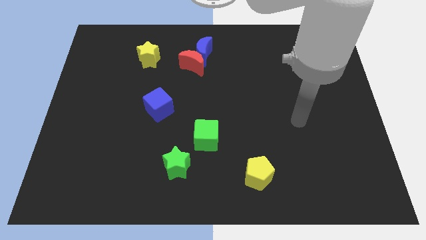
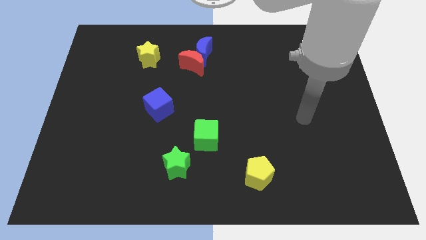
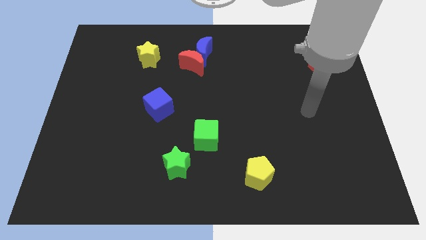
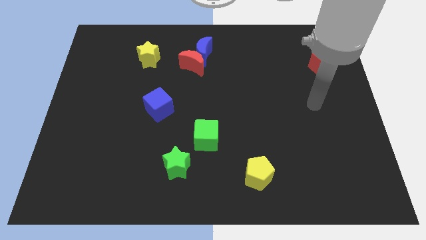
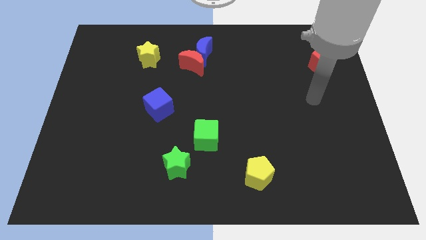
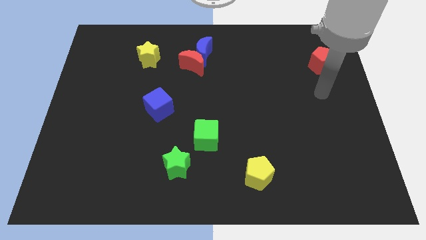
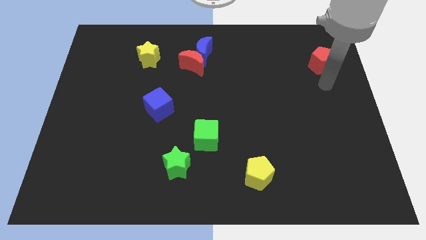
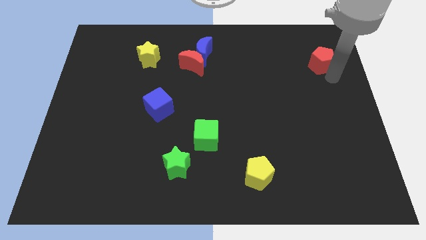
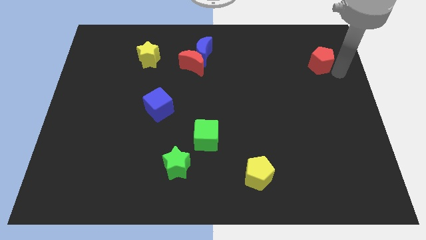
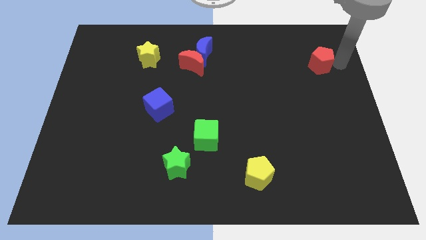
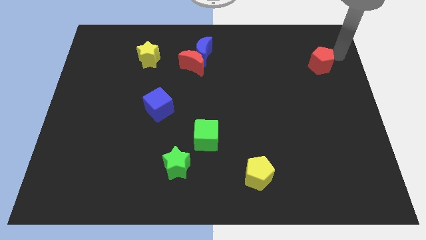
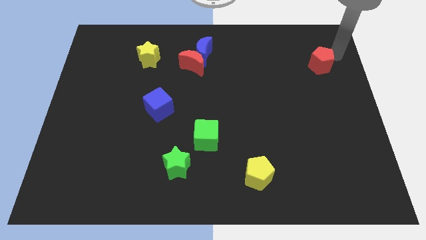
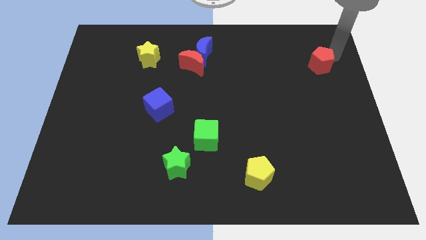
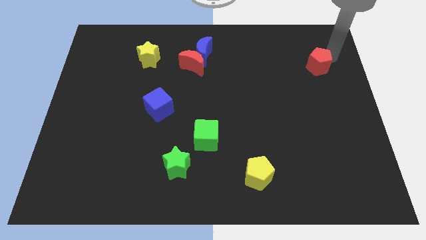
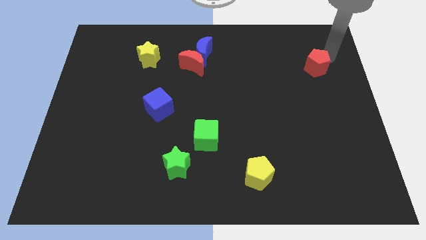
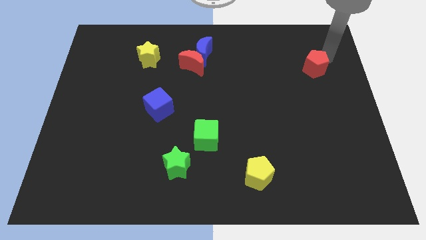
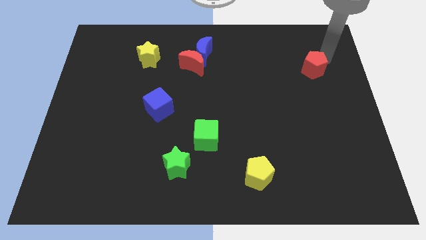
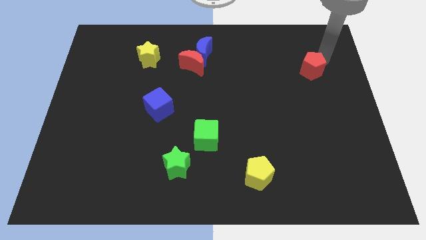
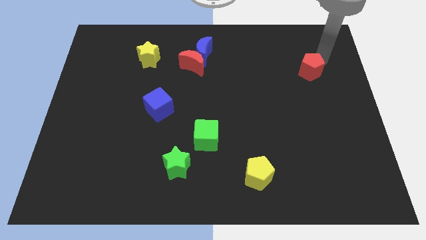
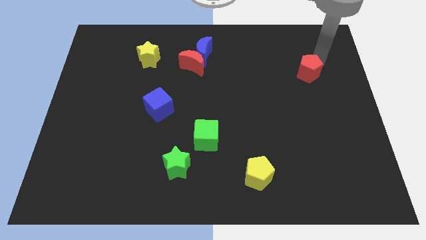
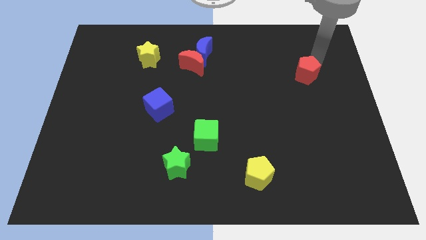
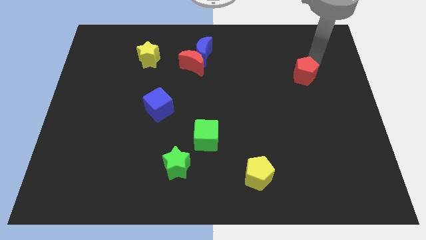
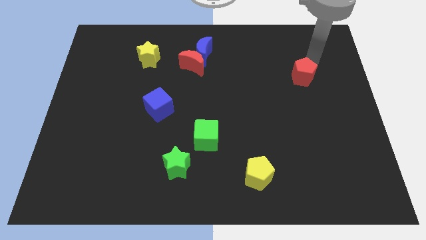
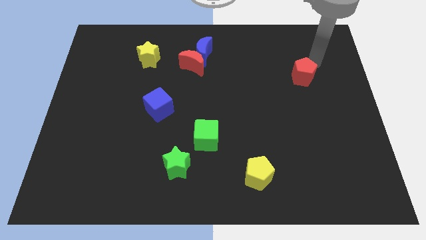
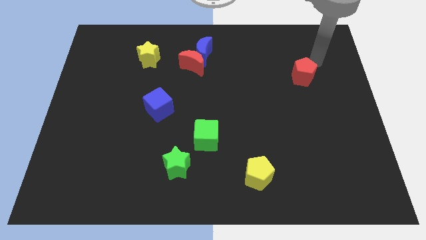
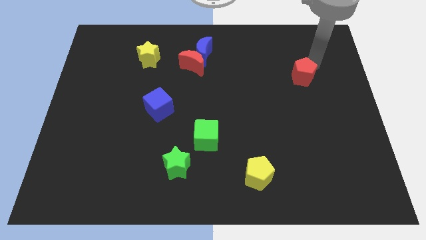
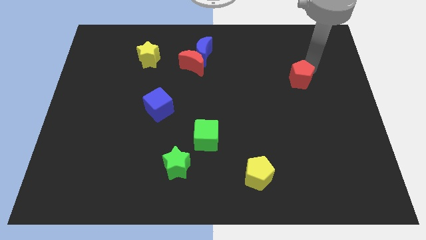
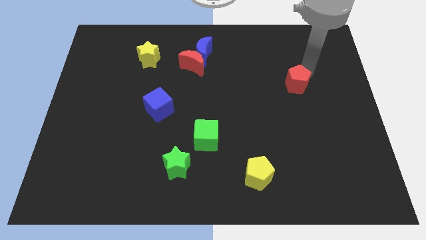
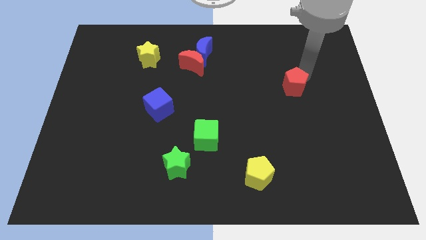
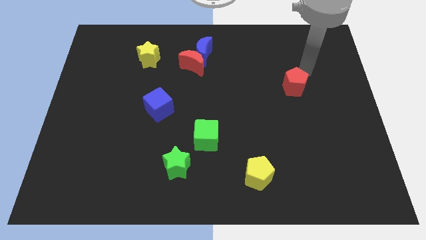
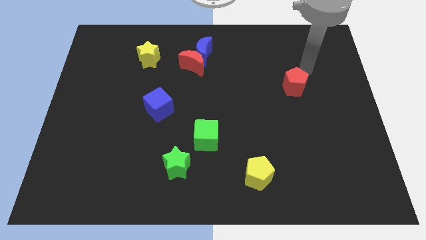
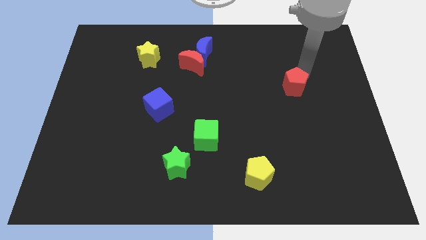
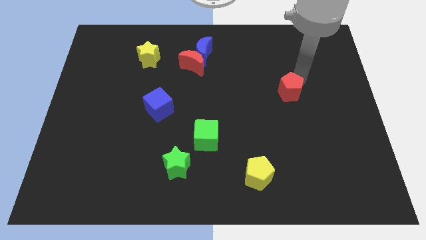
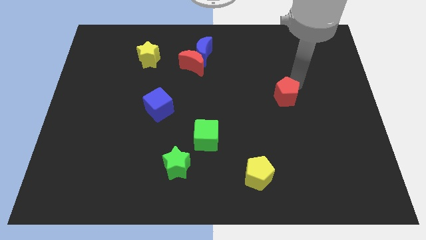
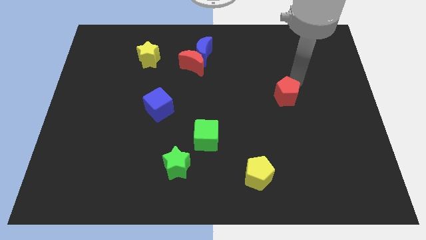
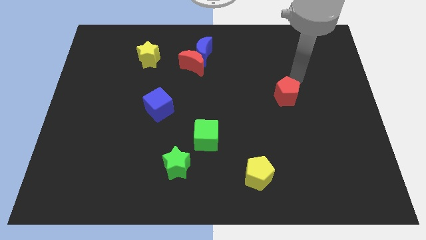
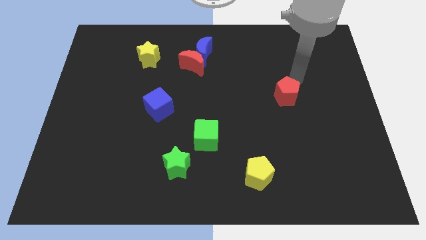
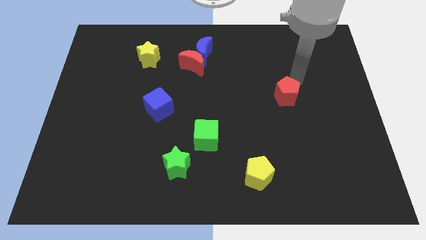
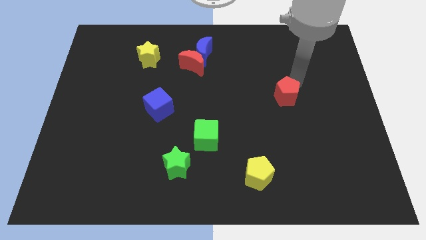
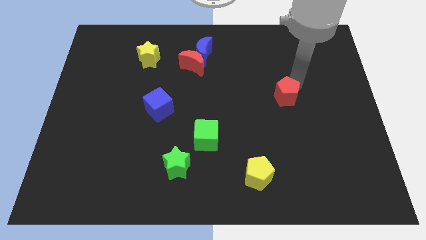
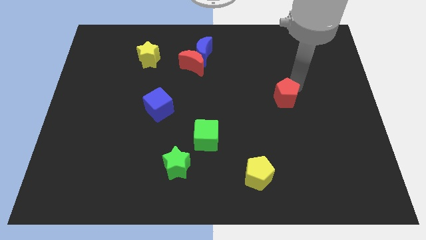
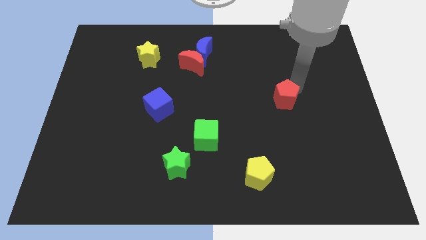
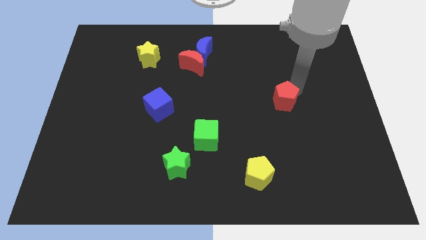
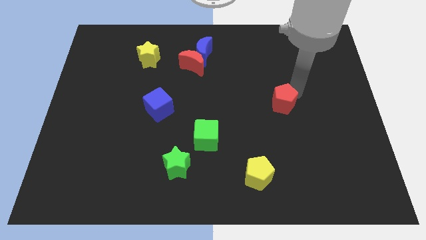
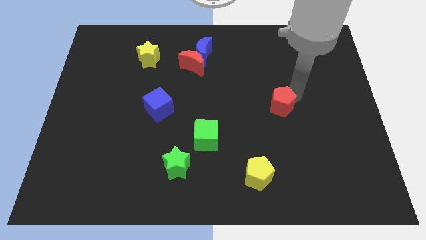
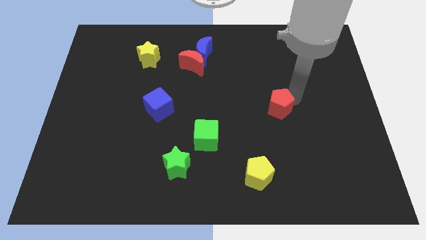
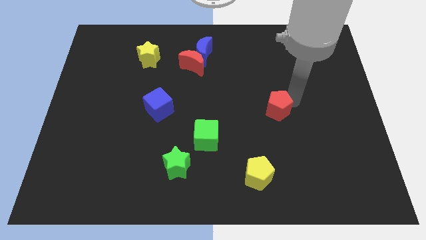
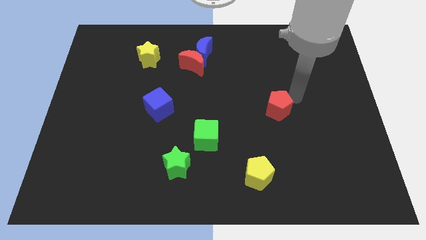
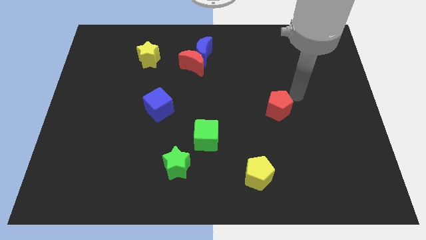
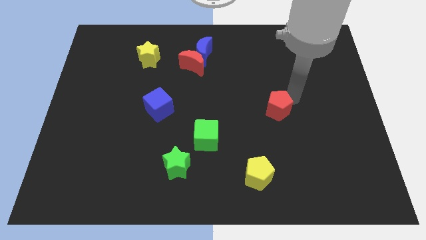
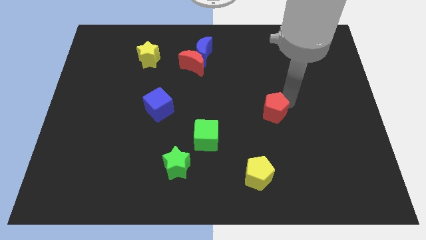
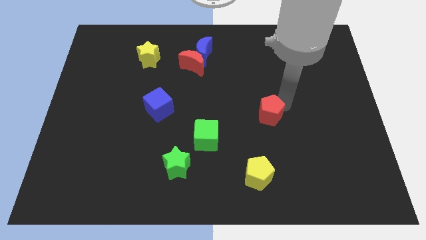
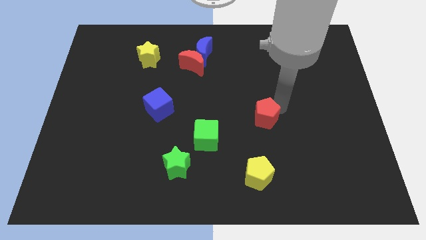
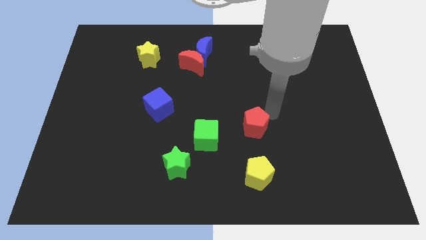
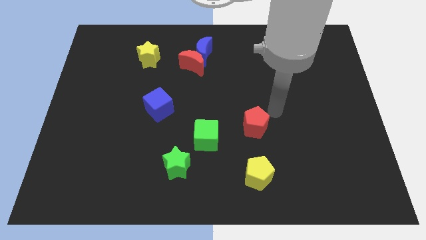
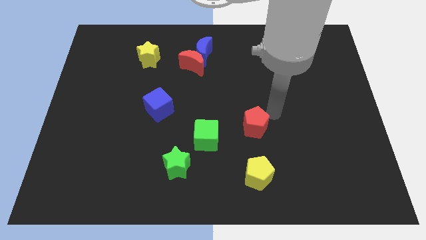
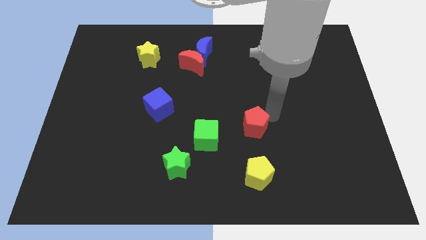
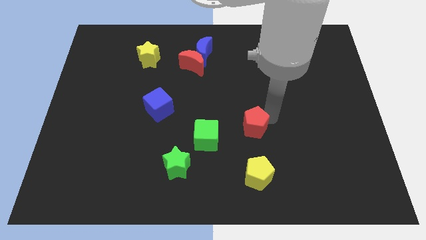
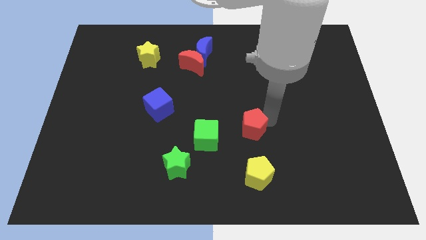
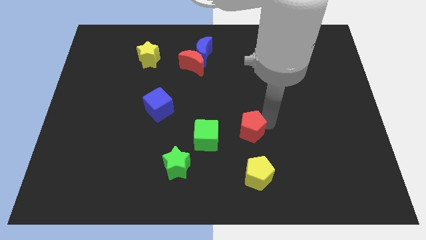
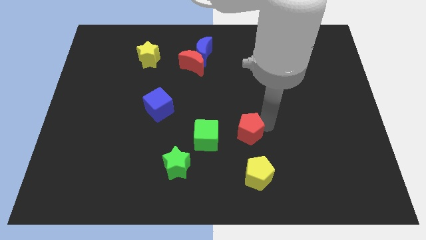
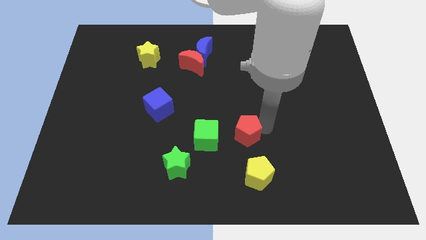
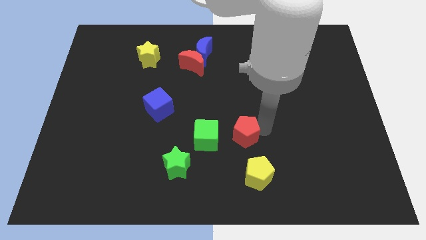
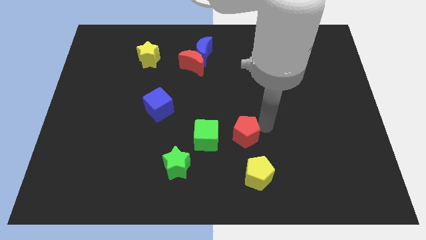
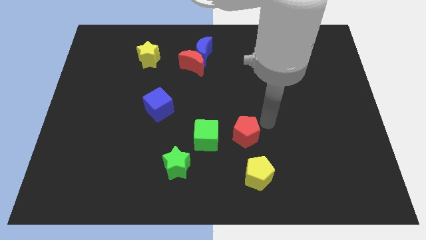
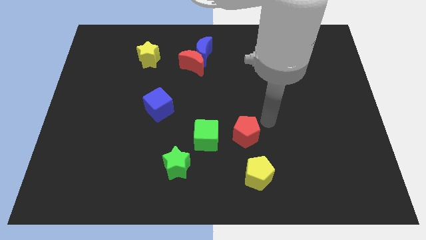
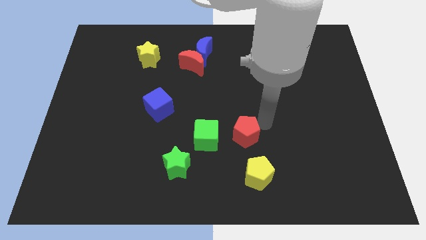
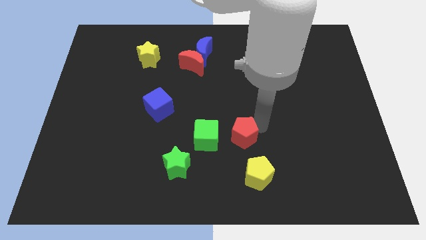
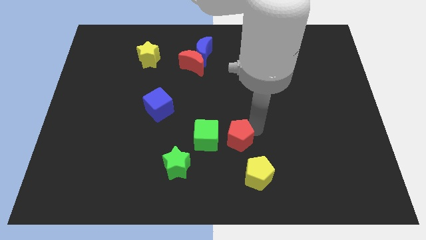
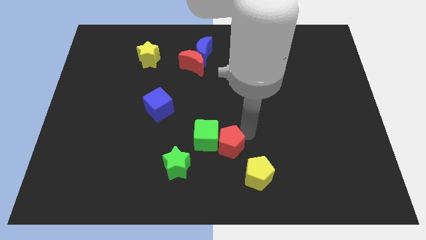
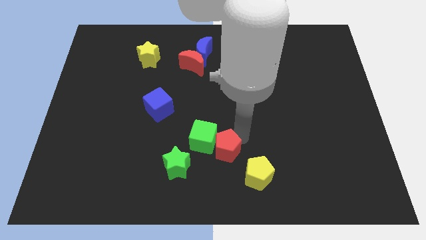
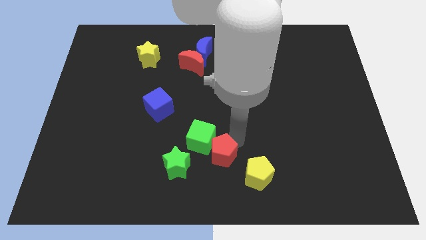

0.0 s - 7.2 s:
push the red pentagon to the bottom side
